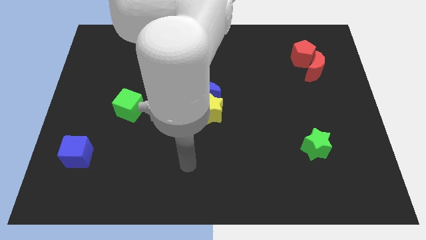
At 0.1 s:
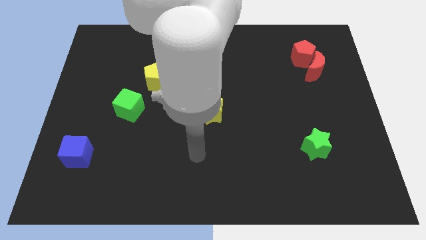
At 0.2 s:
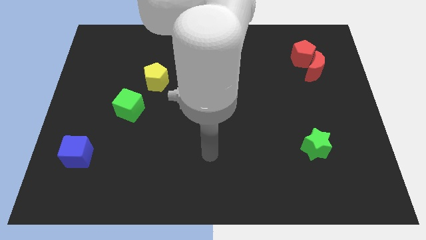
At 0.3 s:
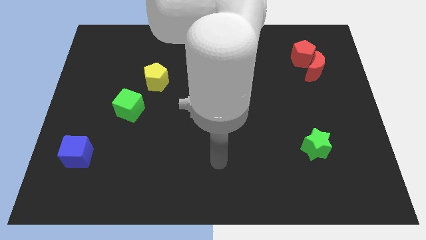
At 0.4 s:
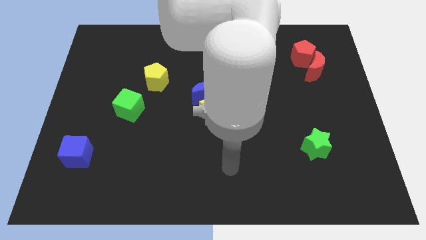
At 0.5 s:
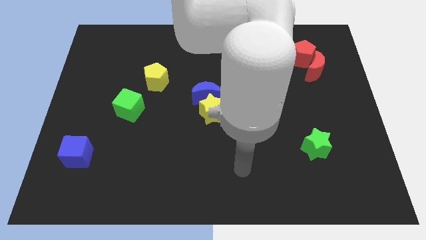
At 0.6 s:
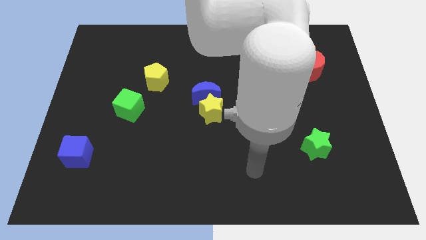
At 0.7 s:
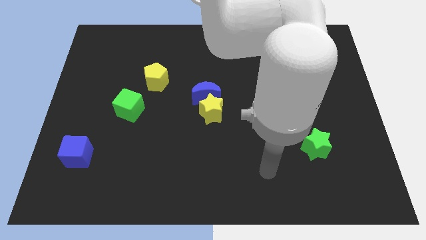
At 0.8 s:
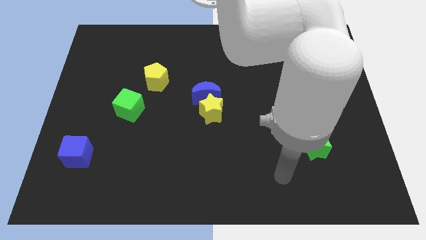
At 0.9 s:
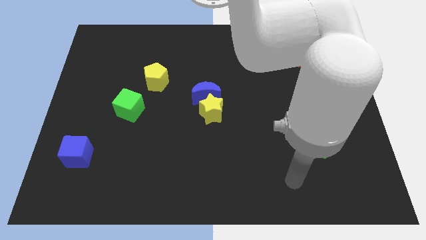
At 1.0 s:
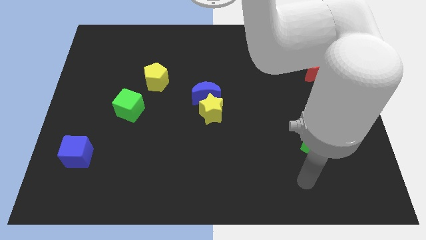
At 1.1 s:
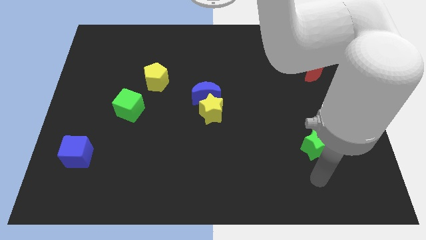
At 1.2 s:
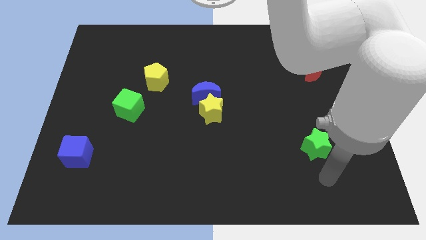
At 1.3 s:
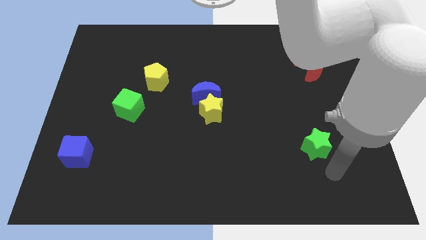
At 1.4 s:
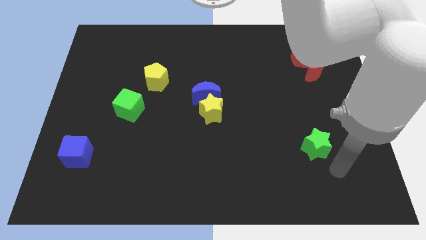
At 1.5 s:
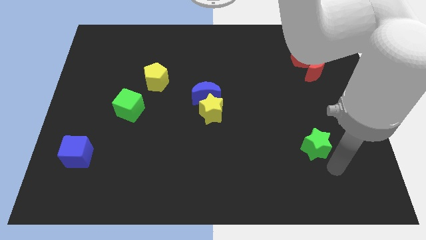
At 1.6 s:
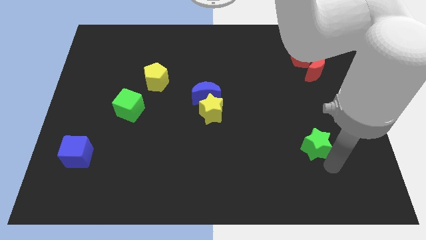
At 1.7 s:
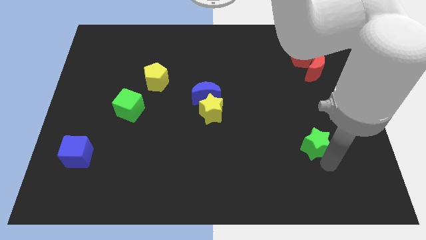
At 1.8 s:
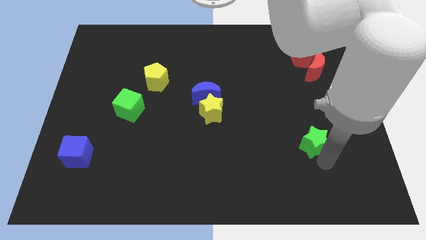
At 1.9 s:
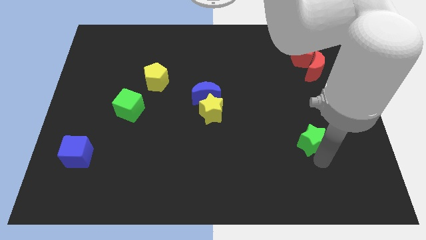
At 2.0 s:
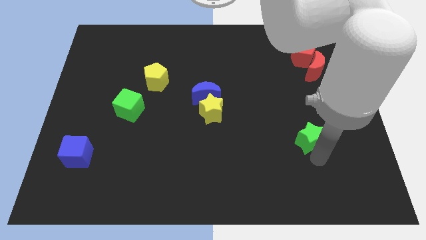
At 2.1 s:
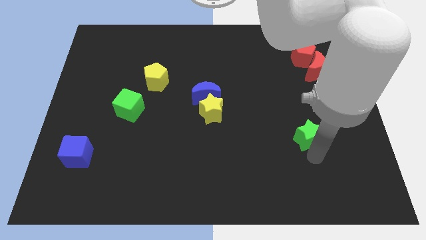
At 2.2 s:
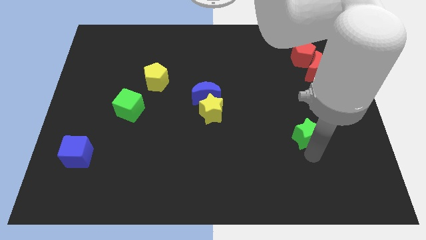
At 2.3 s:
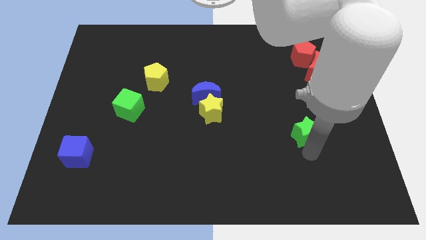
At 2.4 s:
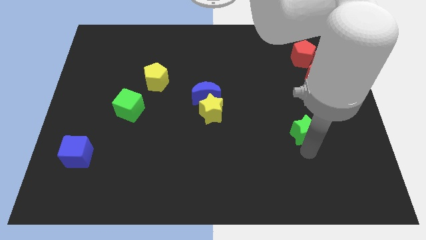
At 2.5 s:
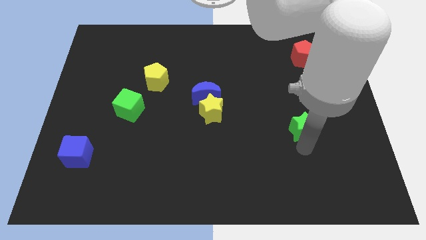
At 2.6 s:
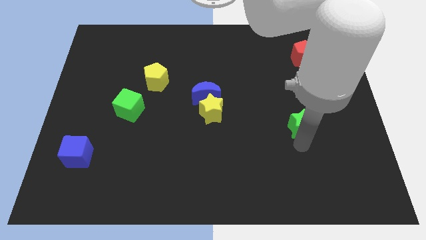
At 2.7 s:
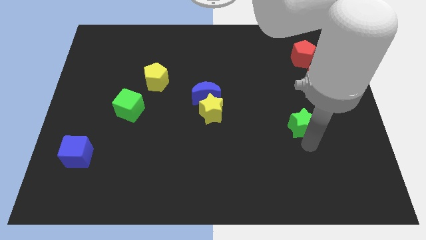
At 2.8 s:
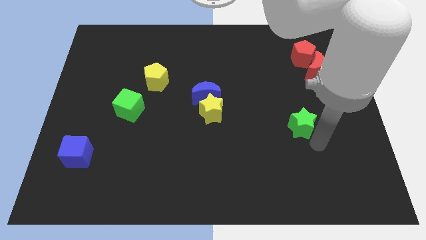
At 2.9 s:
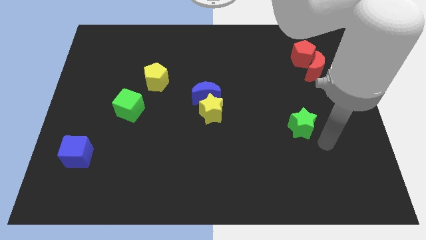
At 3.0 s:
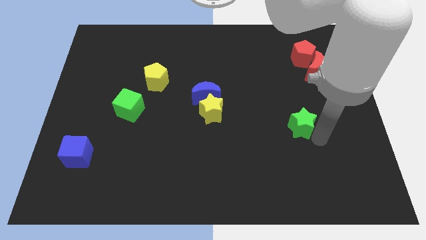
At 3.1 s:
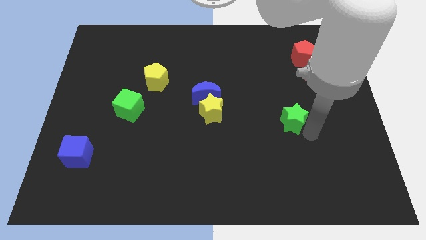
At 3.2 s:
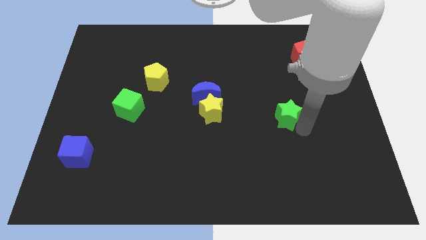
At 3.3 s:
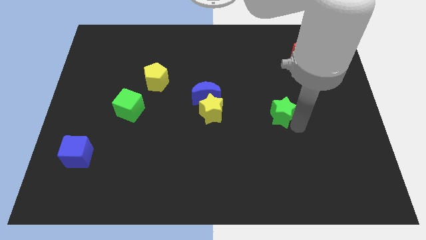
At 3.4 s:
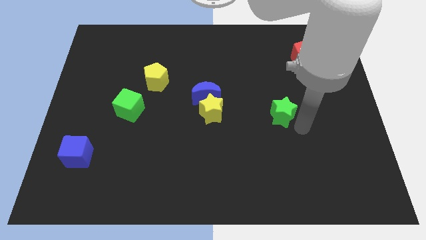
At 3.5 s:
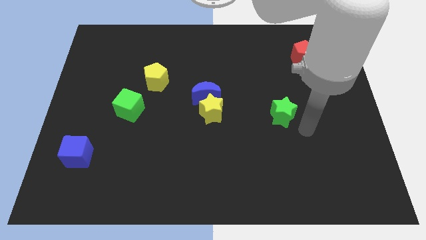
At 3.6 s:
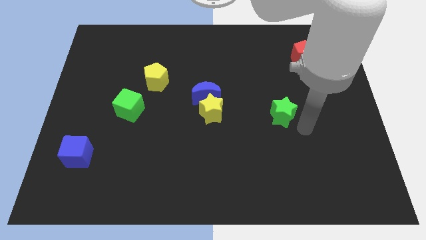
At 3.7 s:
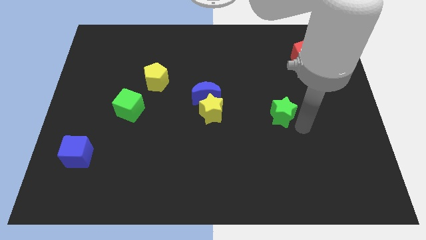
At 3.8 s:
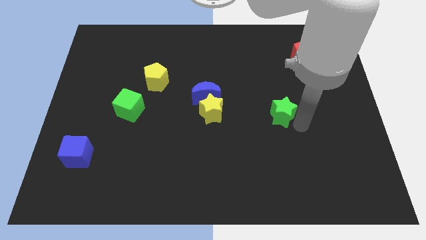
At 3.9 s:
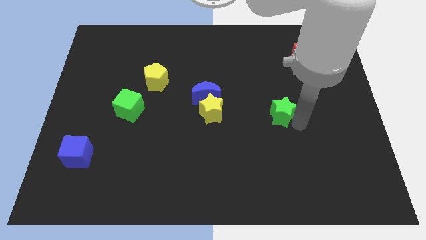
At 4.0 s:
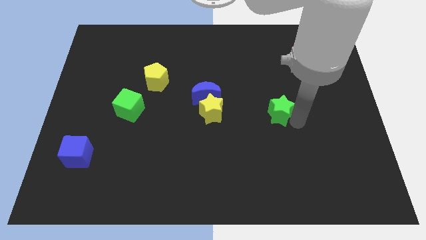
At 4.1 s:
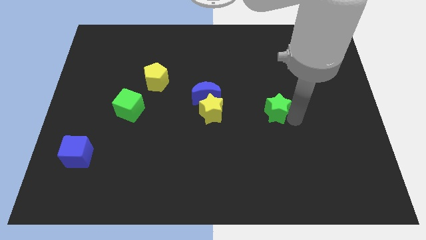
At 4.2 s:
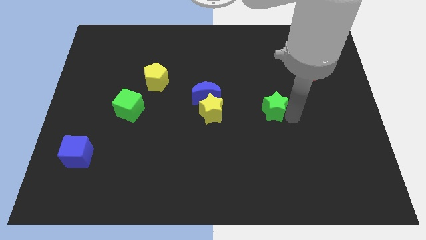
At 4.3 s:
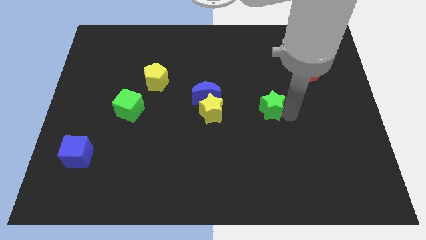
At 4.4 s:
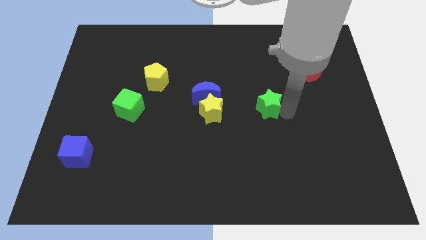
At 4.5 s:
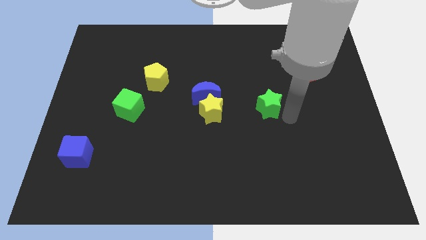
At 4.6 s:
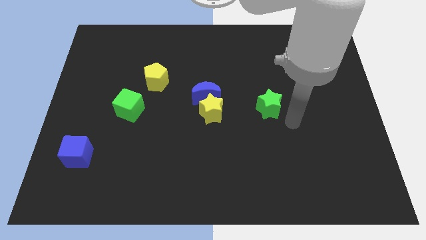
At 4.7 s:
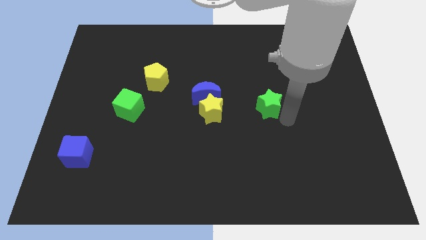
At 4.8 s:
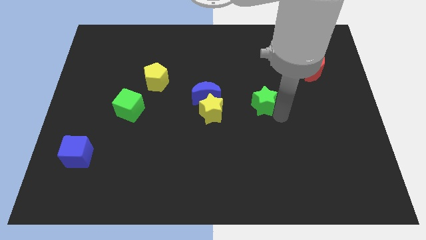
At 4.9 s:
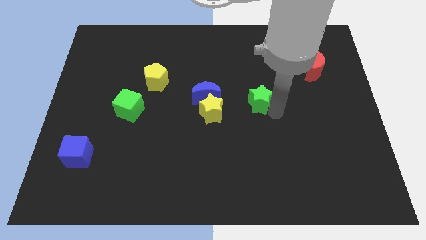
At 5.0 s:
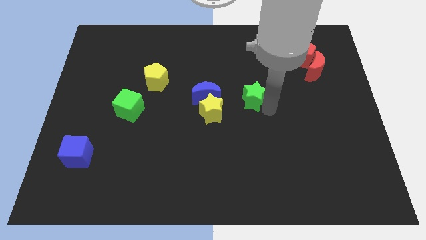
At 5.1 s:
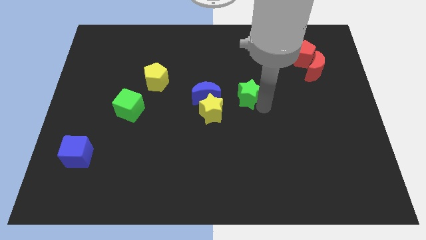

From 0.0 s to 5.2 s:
push the green star up and left

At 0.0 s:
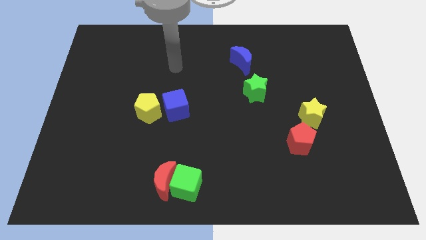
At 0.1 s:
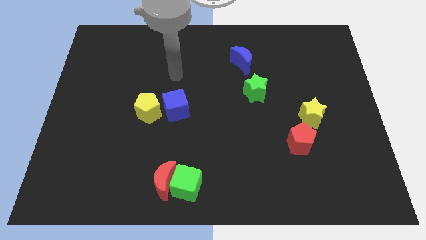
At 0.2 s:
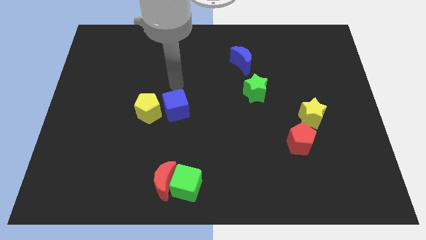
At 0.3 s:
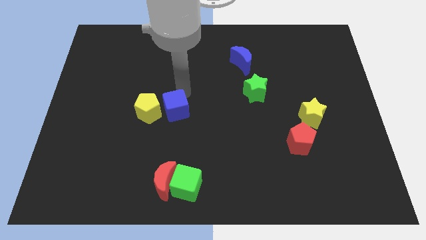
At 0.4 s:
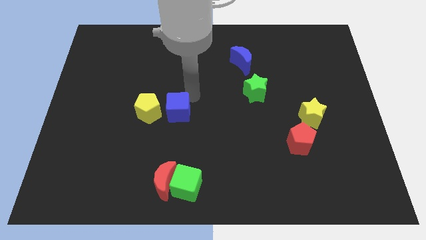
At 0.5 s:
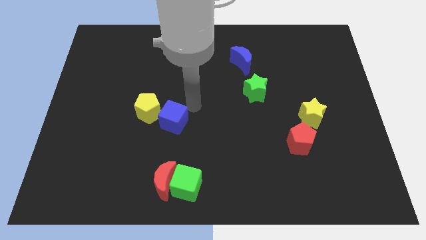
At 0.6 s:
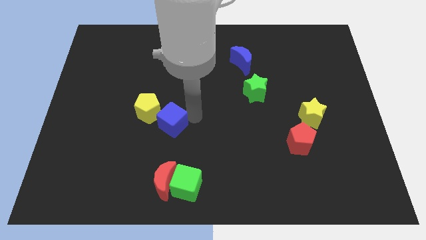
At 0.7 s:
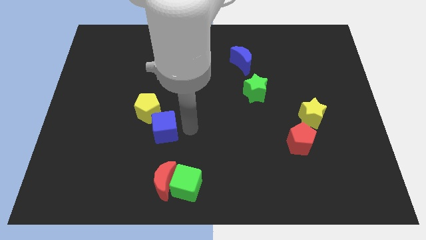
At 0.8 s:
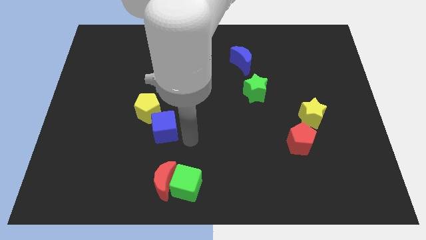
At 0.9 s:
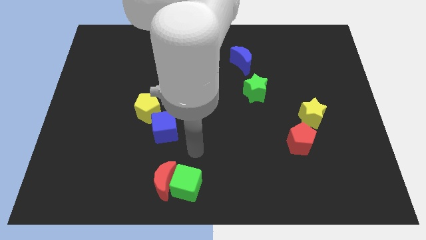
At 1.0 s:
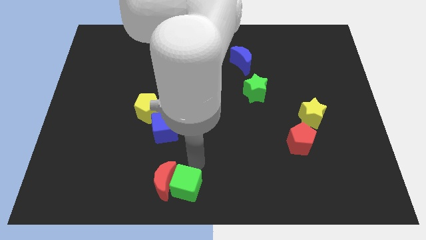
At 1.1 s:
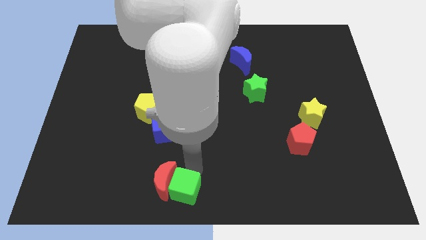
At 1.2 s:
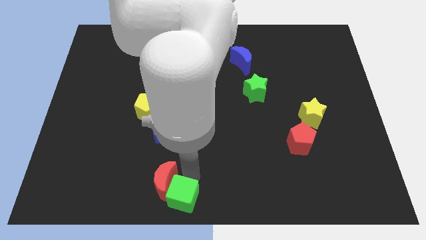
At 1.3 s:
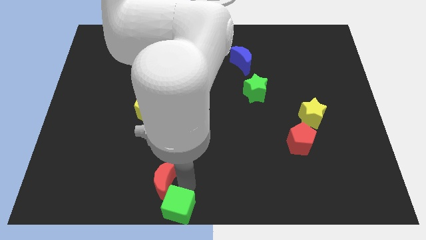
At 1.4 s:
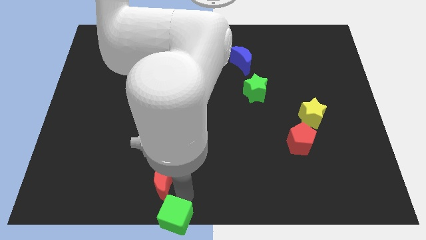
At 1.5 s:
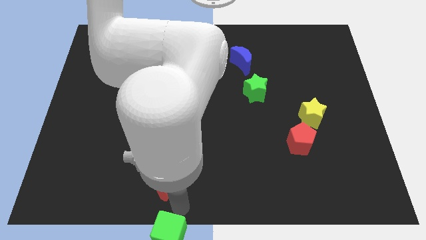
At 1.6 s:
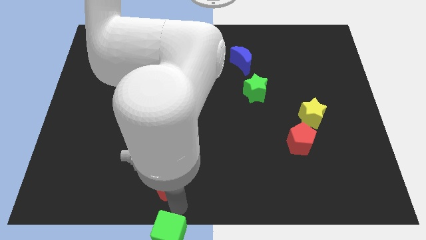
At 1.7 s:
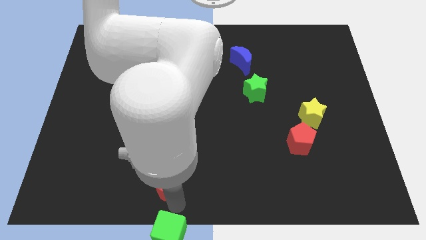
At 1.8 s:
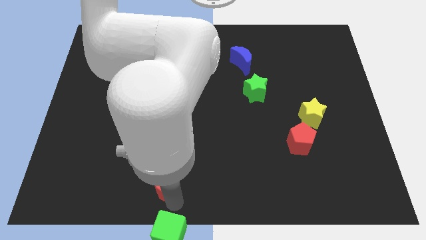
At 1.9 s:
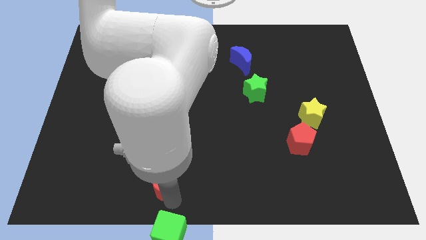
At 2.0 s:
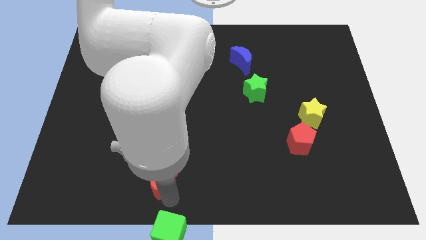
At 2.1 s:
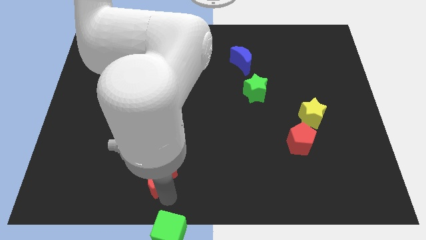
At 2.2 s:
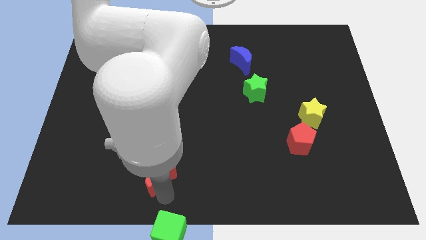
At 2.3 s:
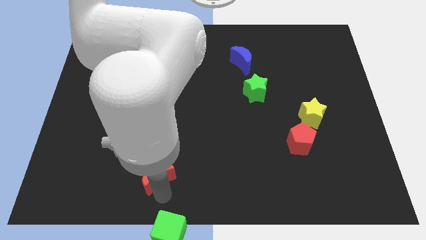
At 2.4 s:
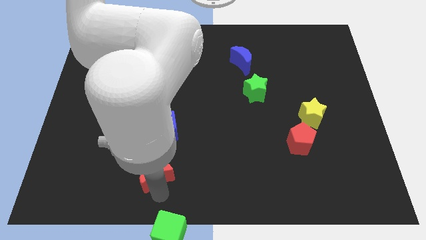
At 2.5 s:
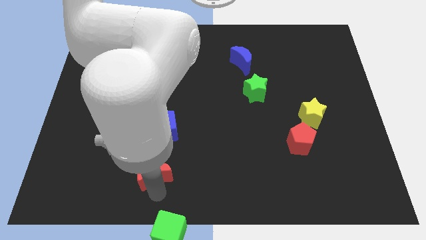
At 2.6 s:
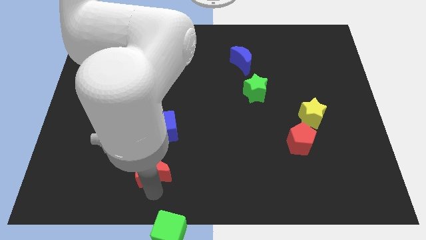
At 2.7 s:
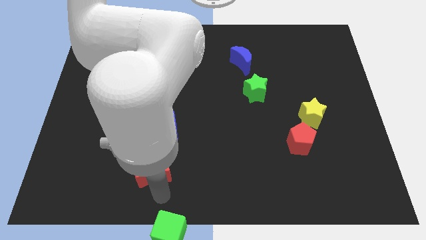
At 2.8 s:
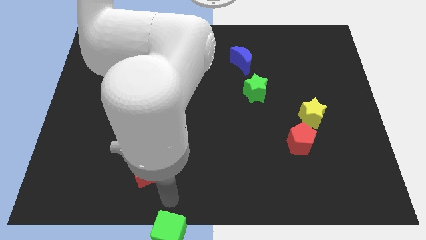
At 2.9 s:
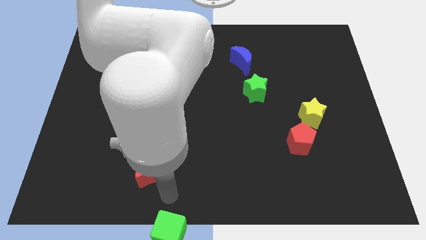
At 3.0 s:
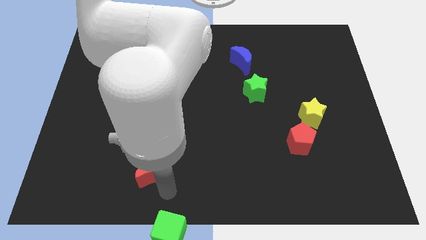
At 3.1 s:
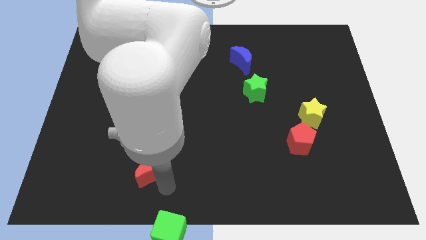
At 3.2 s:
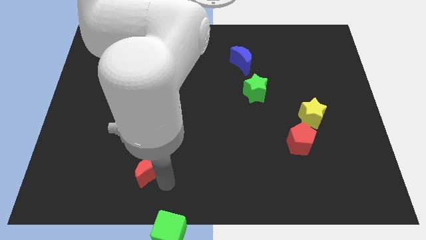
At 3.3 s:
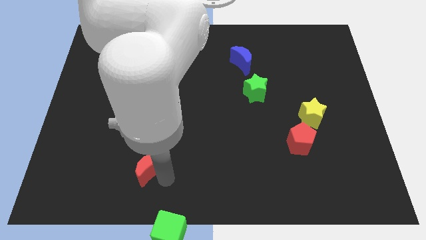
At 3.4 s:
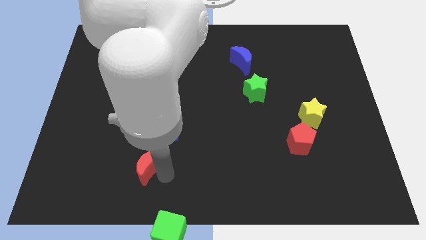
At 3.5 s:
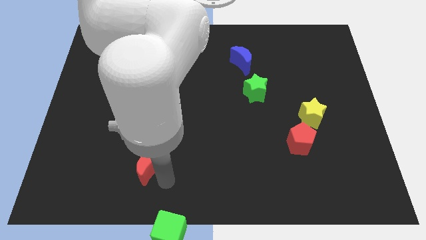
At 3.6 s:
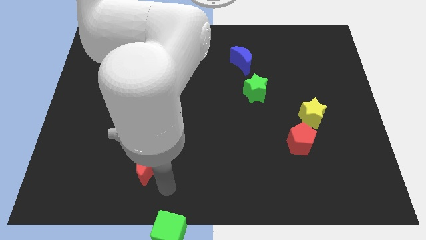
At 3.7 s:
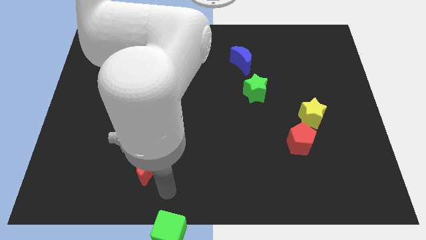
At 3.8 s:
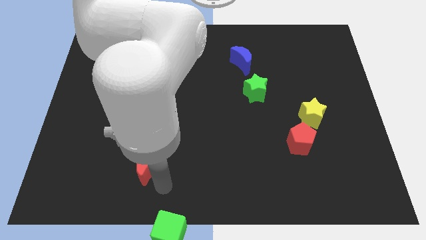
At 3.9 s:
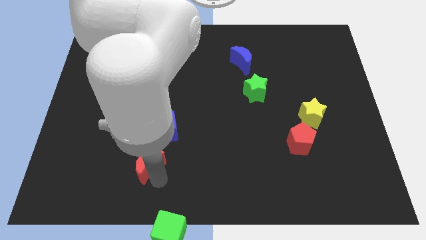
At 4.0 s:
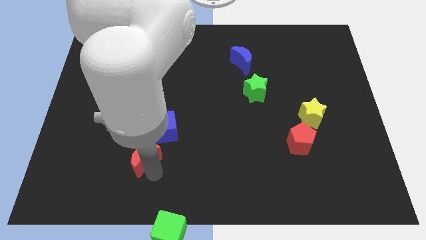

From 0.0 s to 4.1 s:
move the red moon diagonally up and left somewhat
